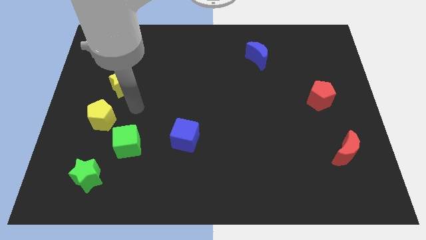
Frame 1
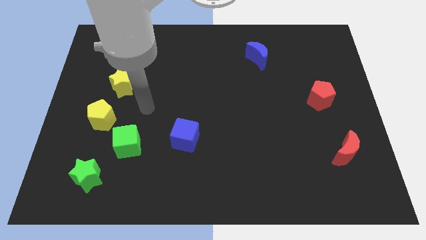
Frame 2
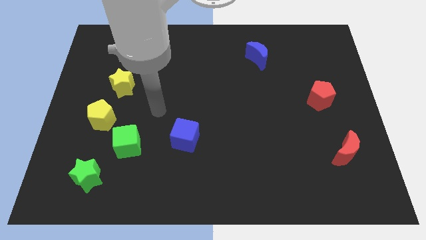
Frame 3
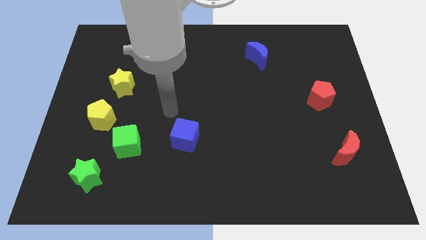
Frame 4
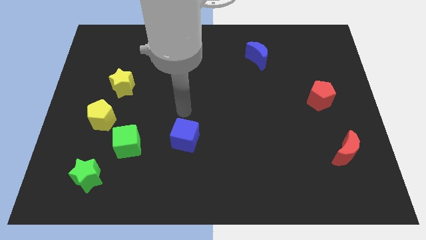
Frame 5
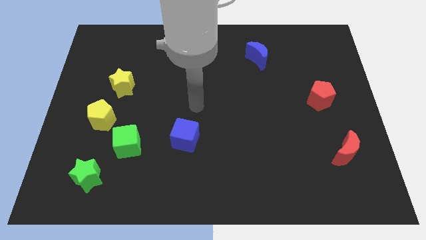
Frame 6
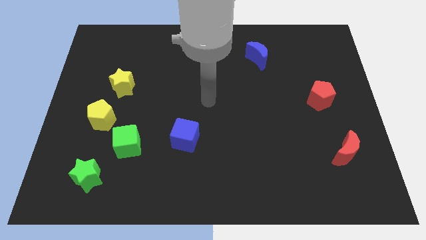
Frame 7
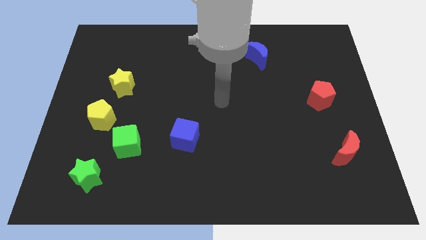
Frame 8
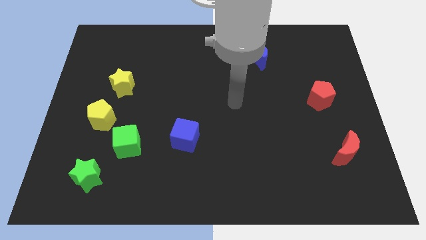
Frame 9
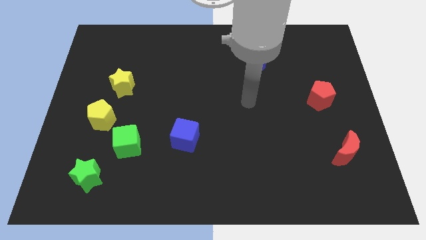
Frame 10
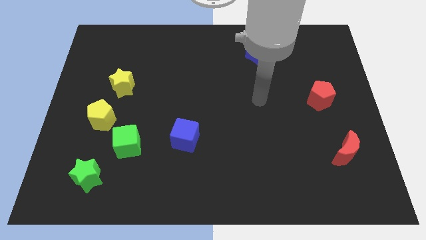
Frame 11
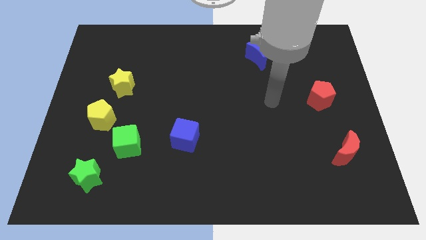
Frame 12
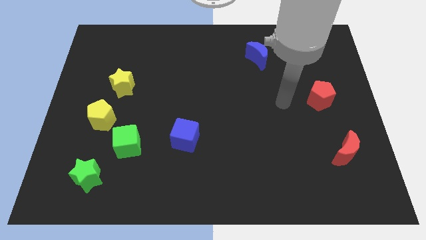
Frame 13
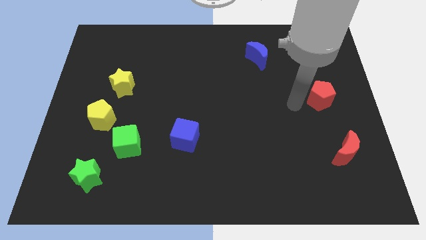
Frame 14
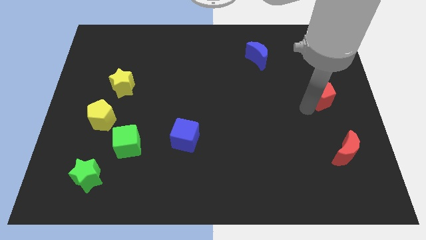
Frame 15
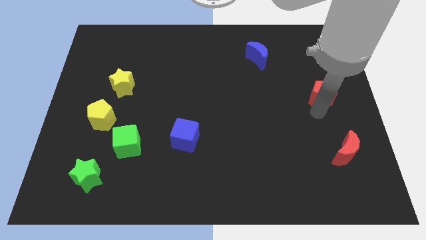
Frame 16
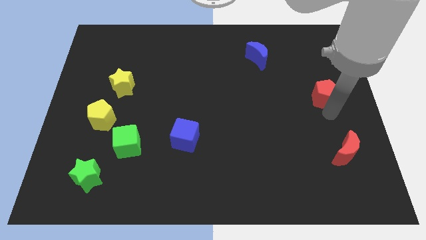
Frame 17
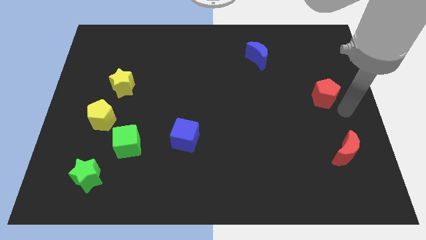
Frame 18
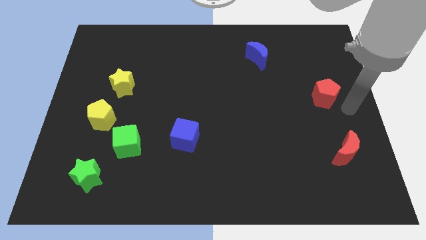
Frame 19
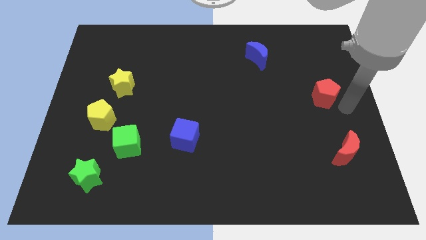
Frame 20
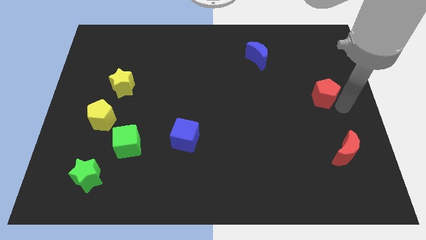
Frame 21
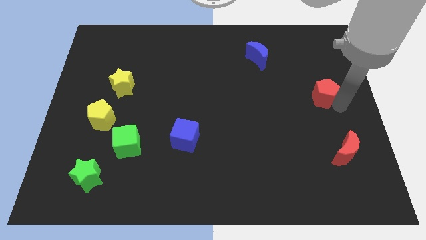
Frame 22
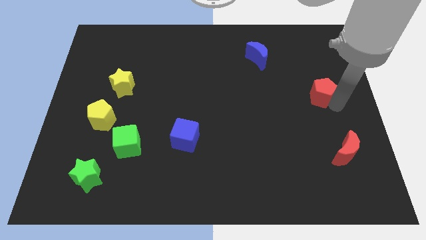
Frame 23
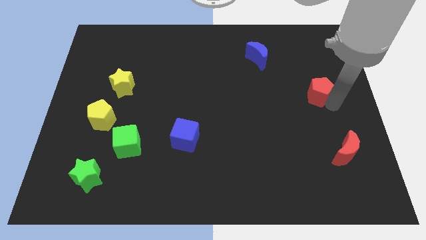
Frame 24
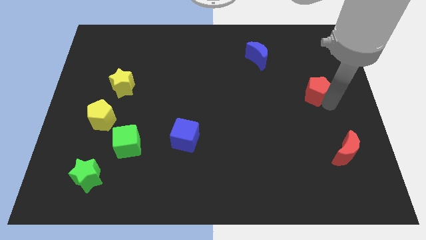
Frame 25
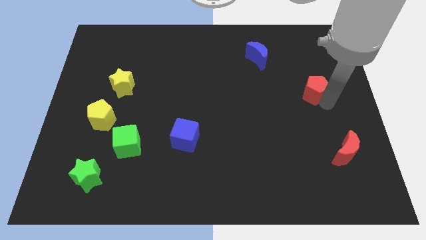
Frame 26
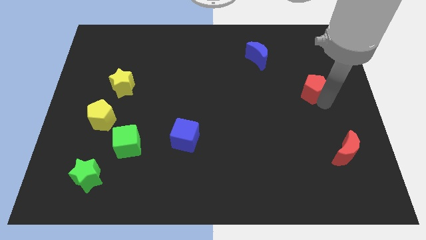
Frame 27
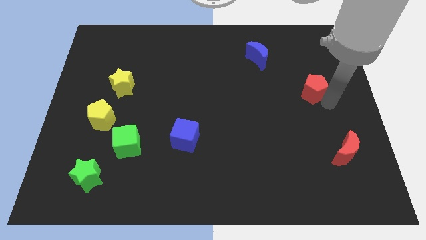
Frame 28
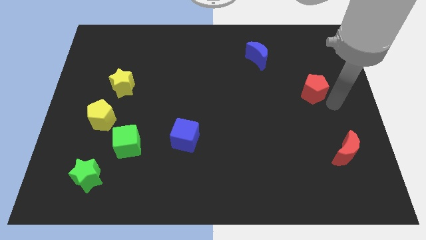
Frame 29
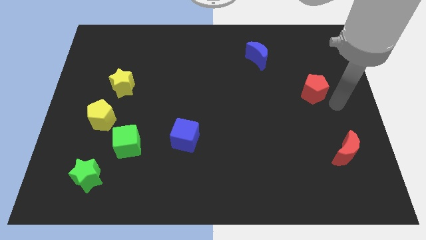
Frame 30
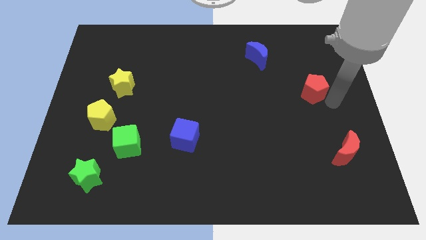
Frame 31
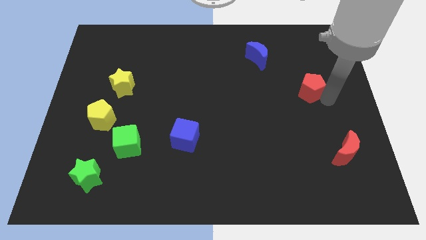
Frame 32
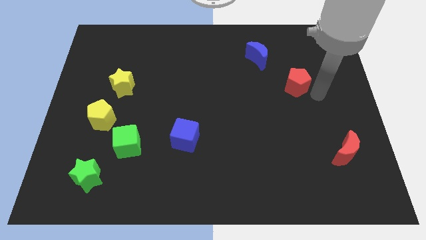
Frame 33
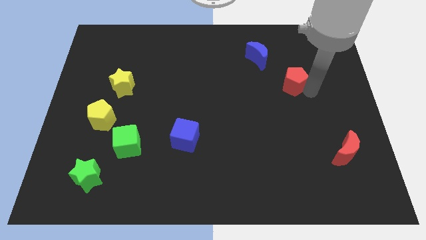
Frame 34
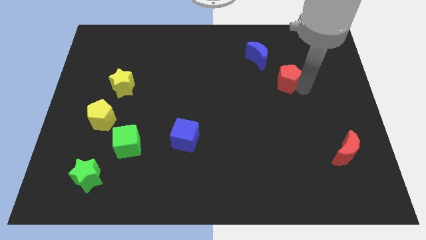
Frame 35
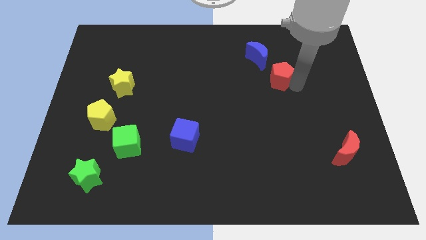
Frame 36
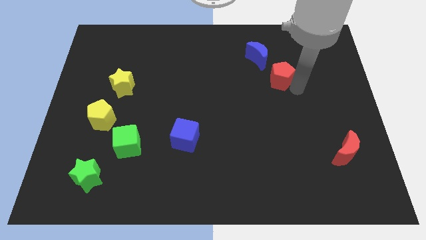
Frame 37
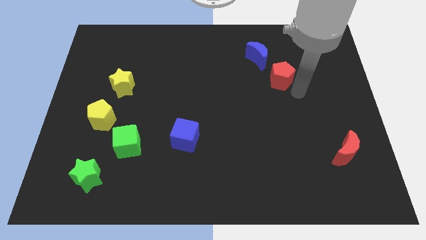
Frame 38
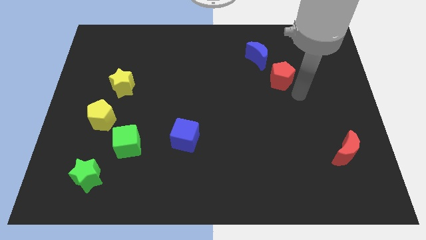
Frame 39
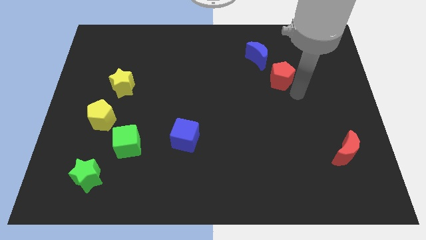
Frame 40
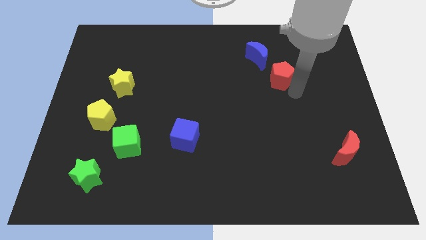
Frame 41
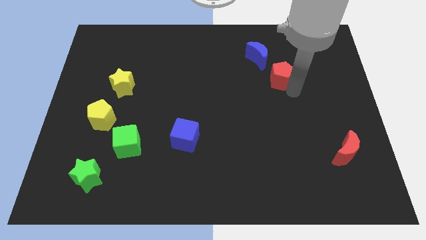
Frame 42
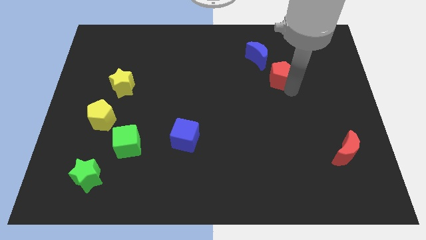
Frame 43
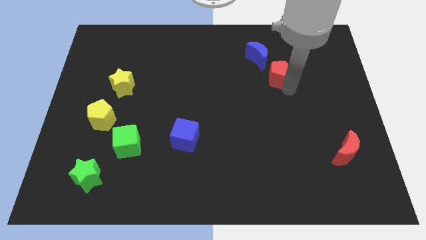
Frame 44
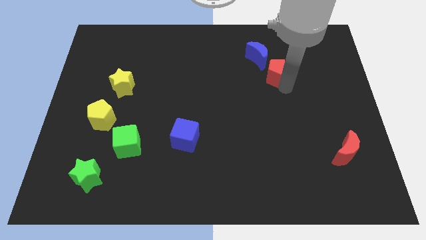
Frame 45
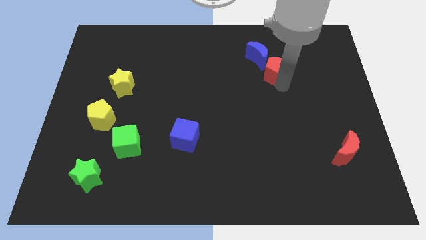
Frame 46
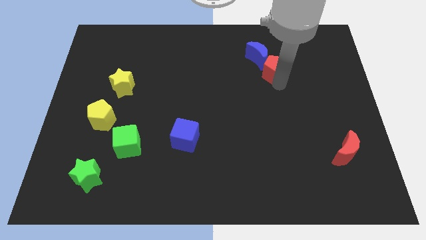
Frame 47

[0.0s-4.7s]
push the red pentagon to the blue moon

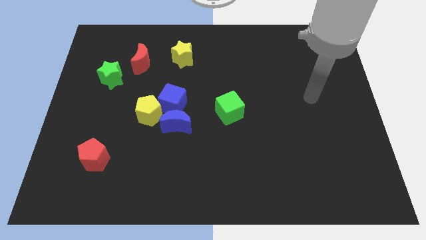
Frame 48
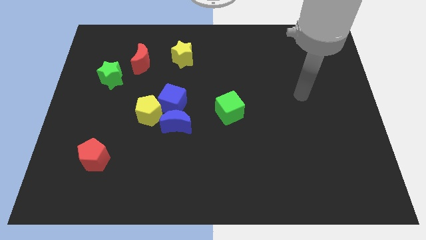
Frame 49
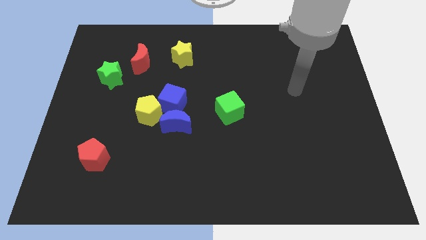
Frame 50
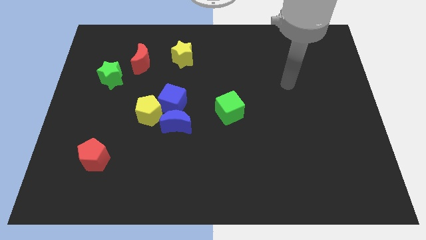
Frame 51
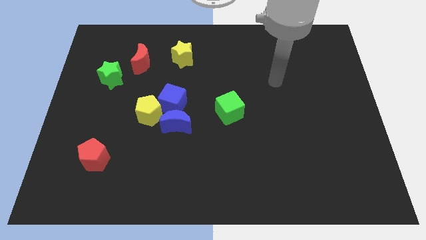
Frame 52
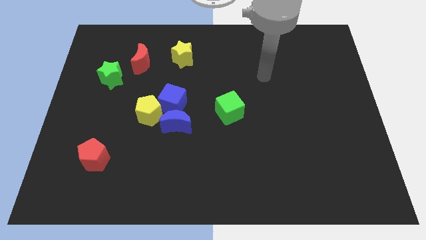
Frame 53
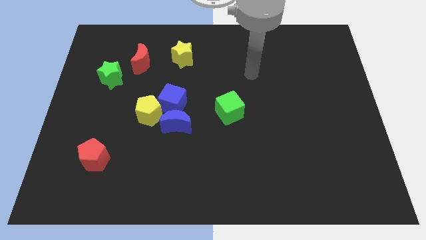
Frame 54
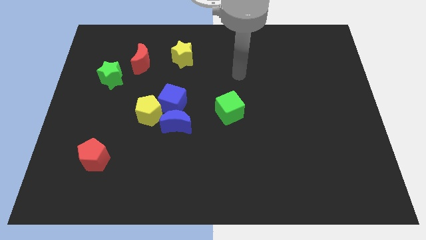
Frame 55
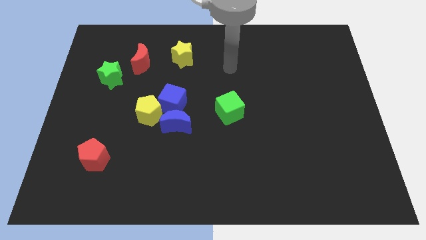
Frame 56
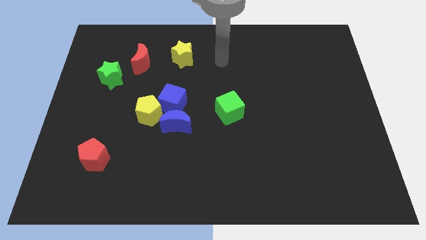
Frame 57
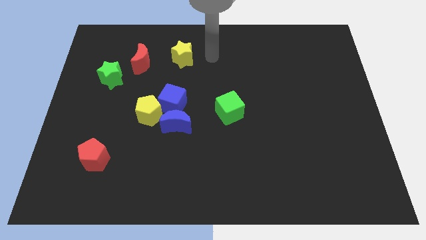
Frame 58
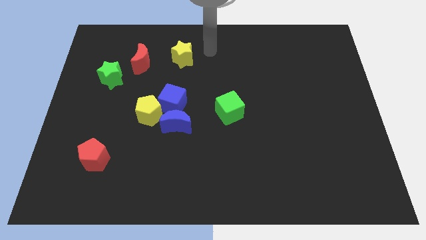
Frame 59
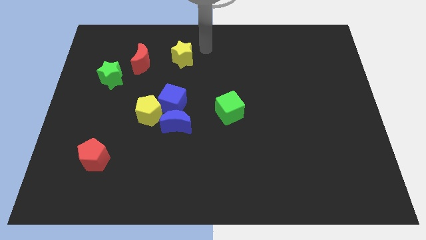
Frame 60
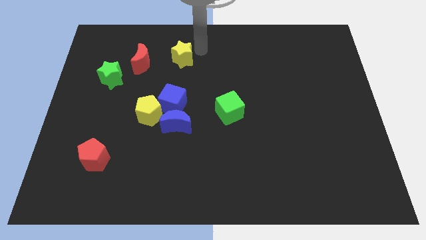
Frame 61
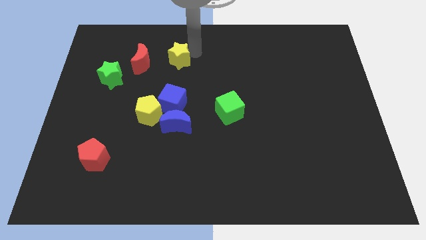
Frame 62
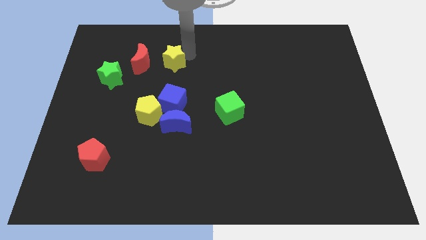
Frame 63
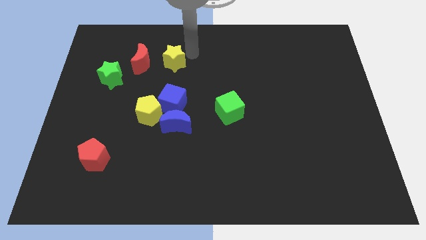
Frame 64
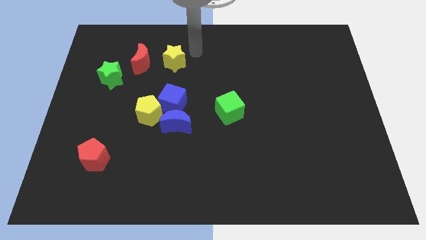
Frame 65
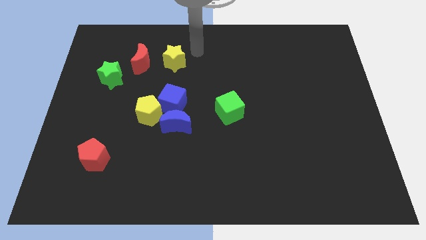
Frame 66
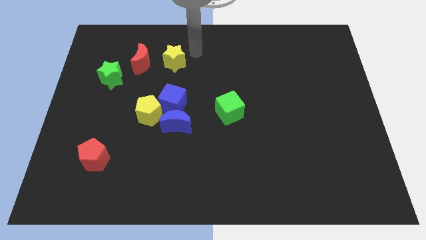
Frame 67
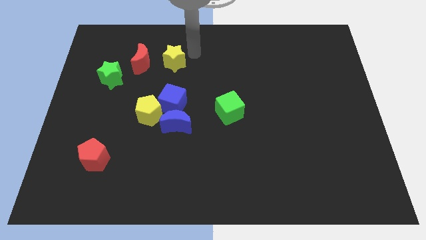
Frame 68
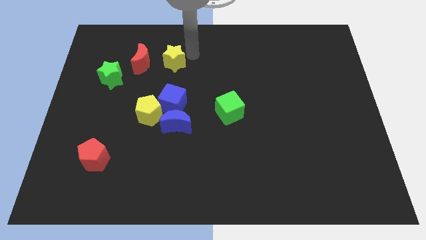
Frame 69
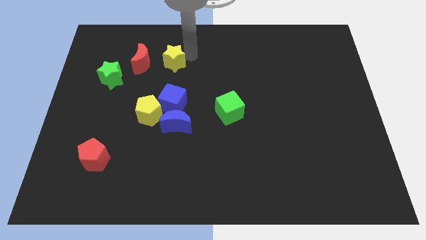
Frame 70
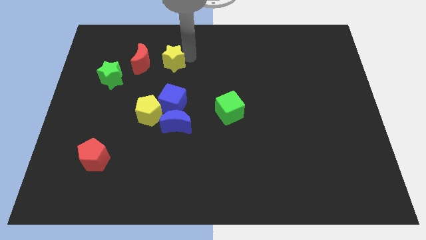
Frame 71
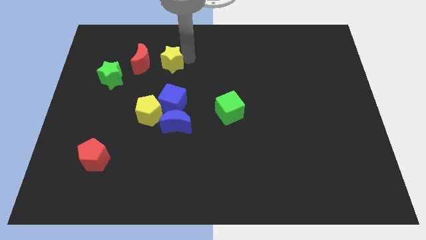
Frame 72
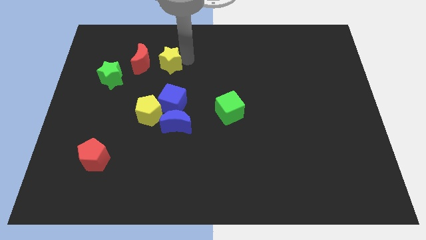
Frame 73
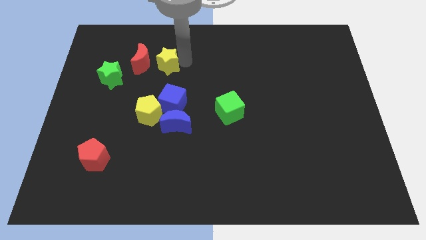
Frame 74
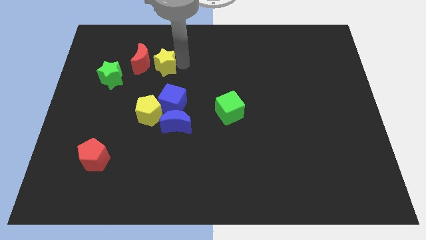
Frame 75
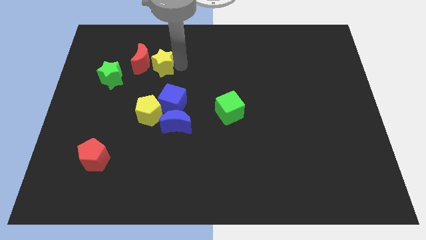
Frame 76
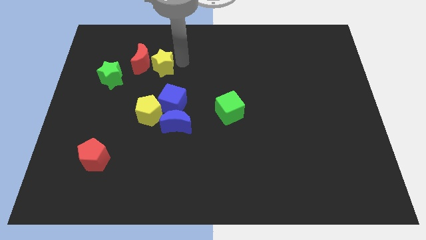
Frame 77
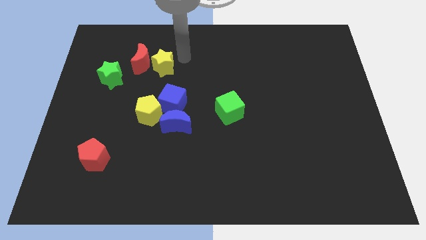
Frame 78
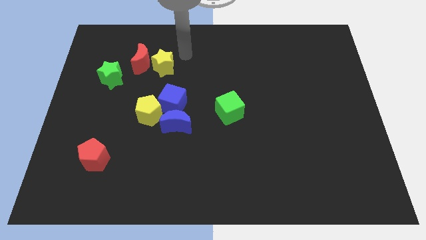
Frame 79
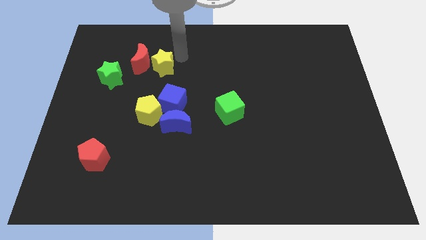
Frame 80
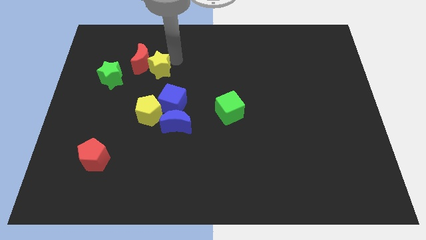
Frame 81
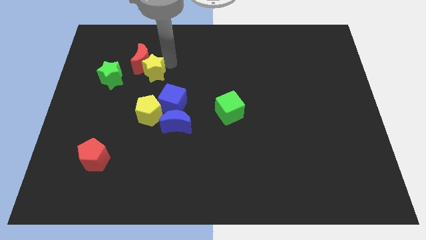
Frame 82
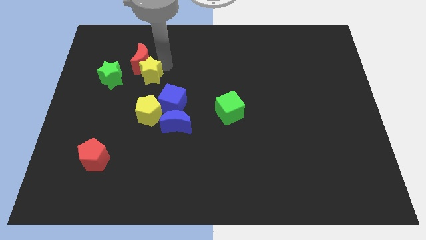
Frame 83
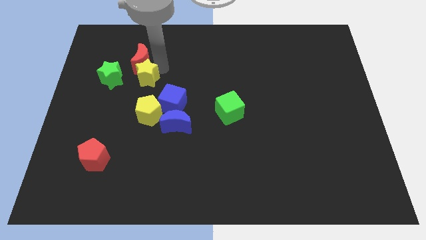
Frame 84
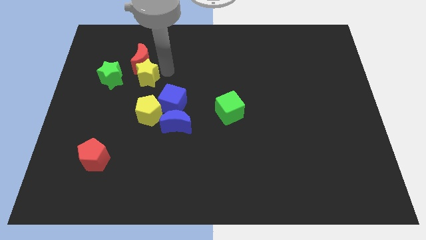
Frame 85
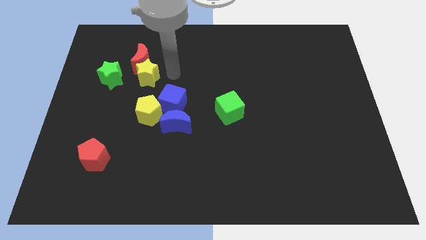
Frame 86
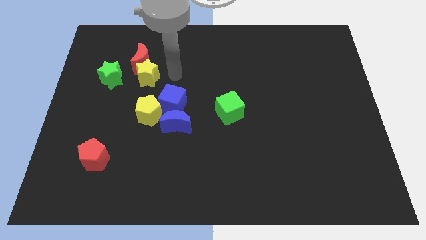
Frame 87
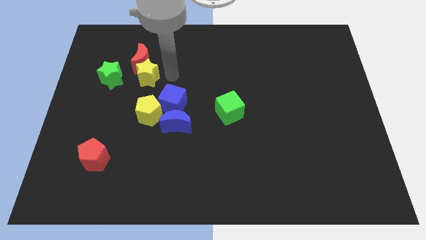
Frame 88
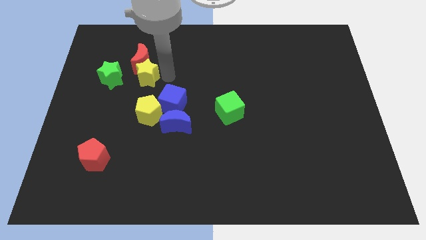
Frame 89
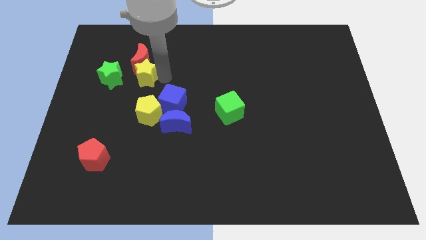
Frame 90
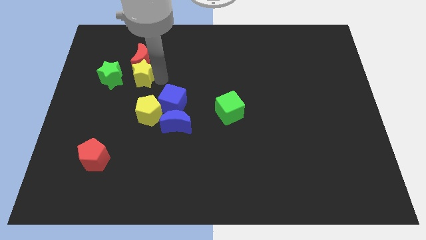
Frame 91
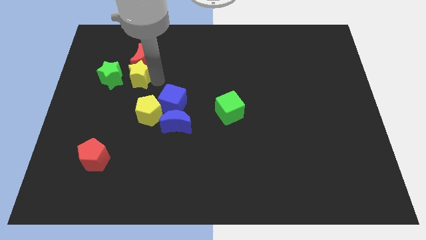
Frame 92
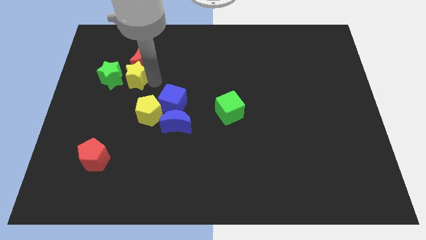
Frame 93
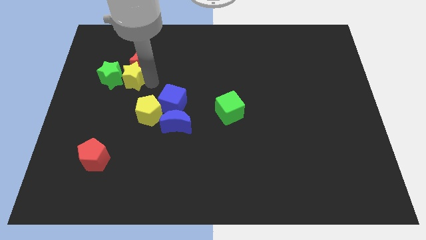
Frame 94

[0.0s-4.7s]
put the yellow star close to the green star
